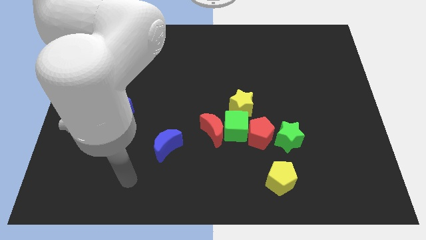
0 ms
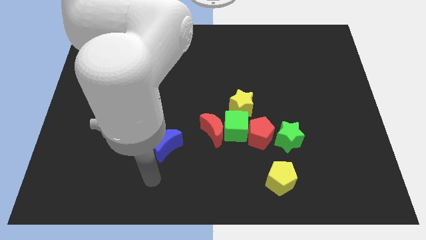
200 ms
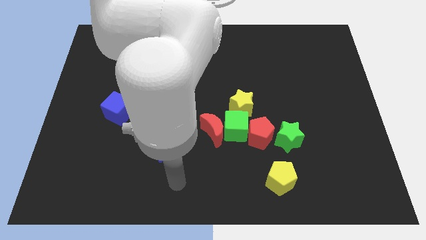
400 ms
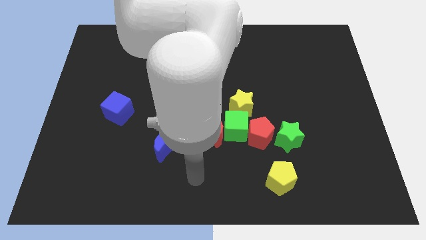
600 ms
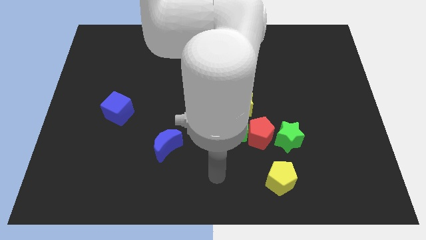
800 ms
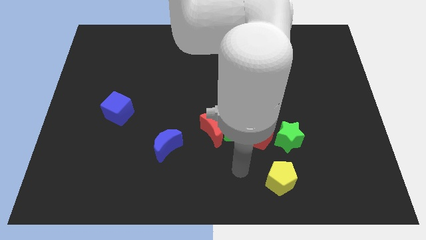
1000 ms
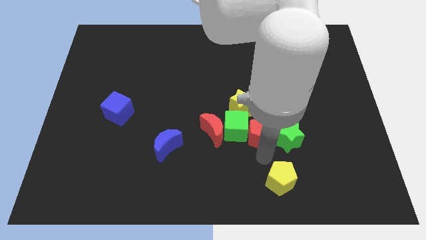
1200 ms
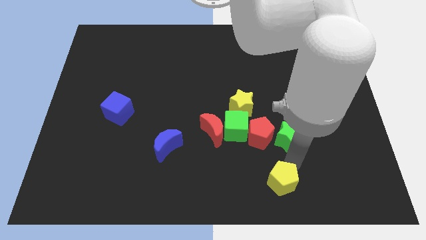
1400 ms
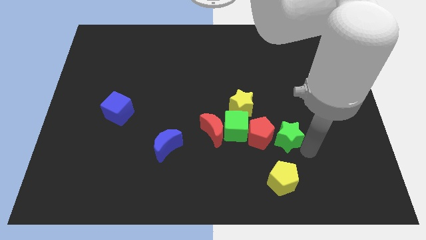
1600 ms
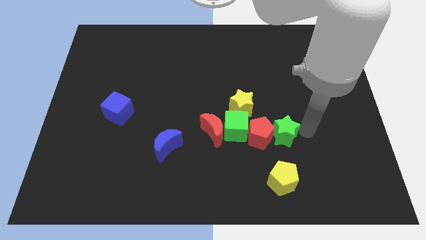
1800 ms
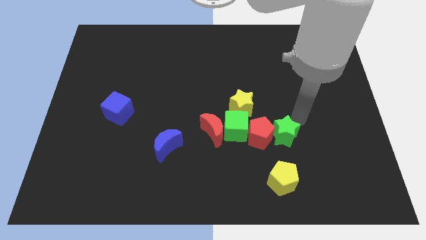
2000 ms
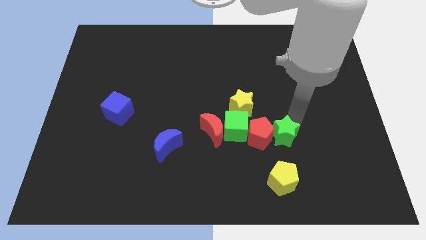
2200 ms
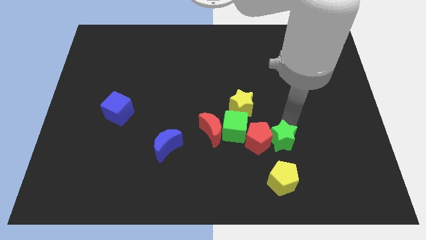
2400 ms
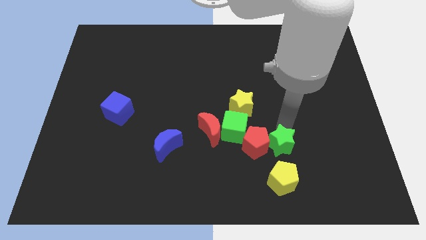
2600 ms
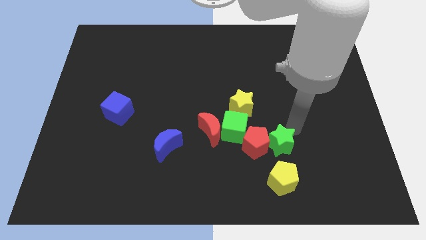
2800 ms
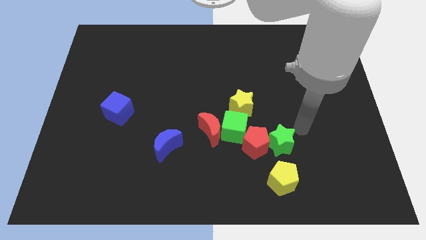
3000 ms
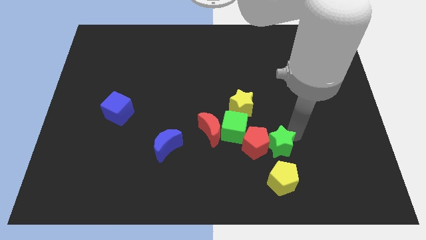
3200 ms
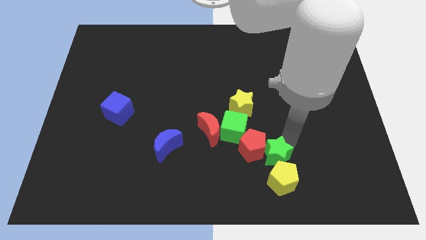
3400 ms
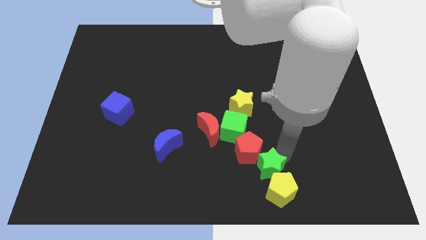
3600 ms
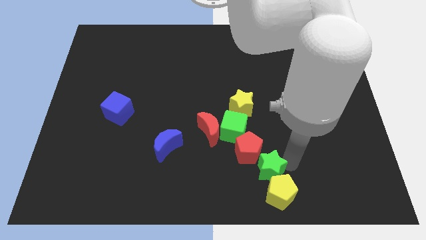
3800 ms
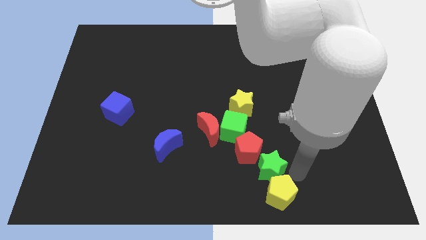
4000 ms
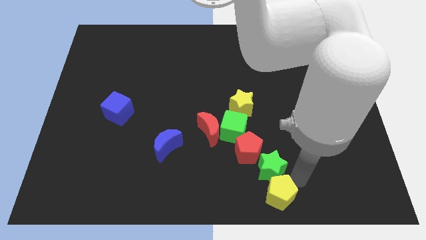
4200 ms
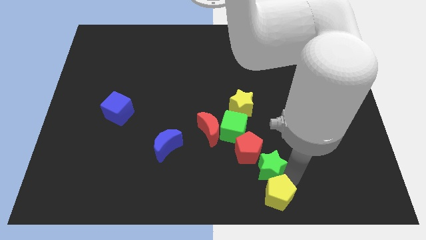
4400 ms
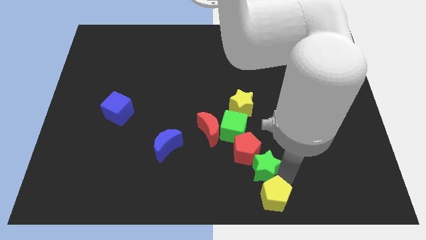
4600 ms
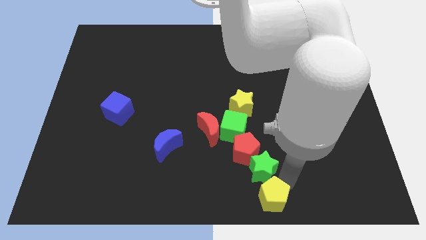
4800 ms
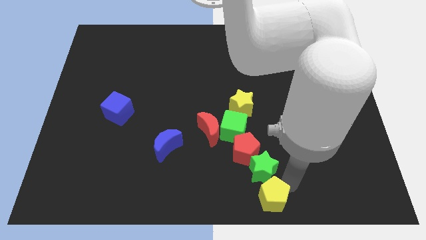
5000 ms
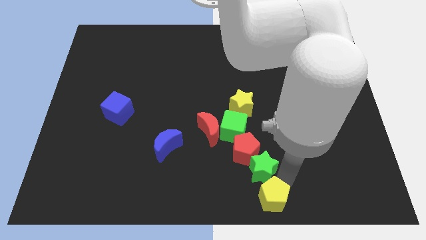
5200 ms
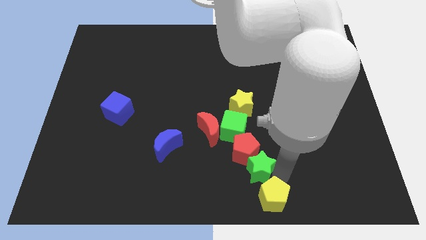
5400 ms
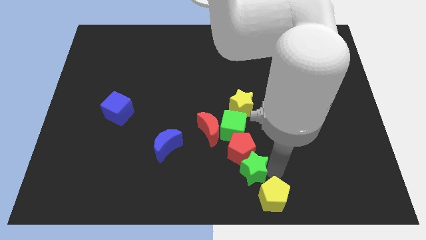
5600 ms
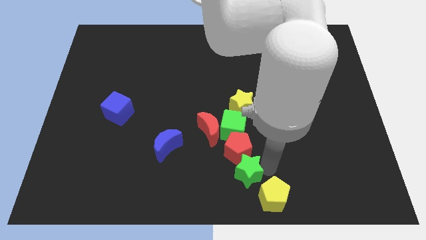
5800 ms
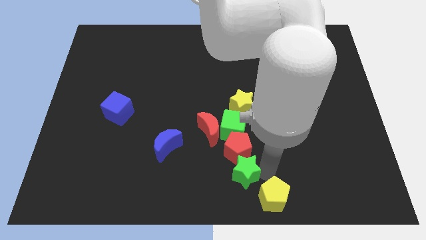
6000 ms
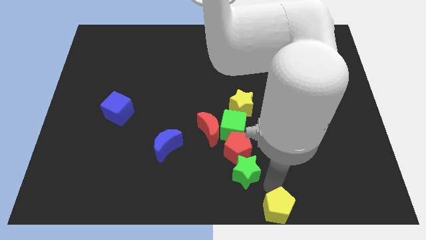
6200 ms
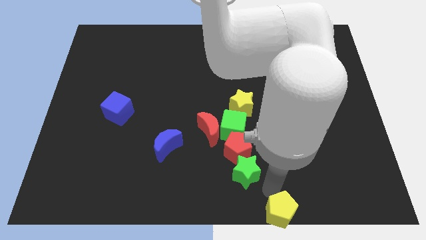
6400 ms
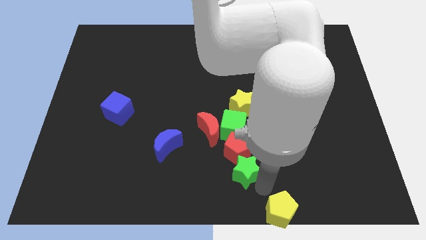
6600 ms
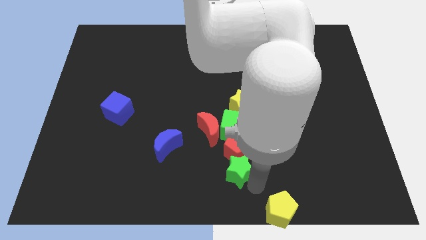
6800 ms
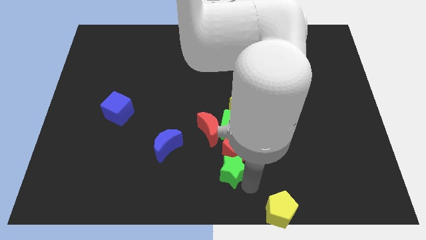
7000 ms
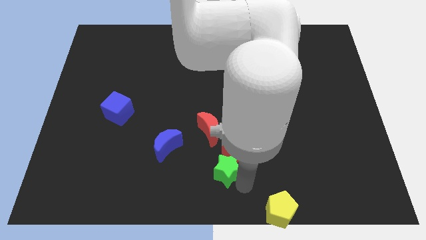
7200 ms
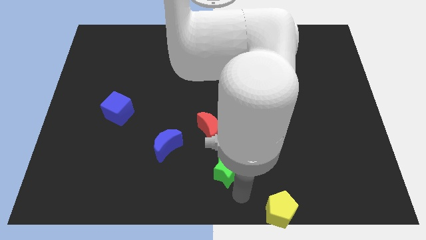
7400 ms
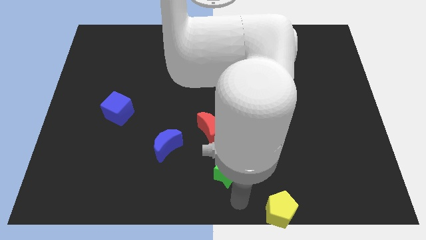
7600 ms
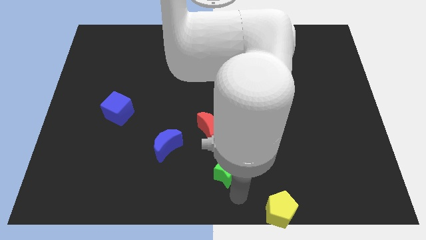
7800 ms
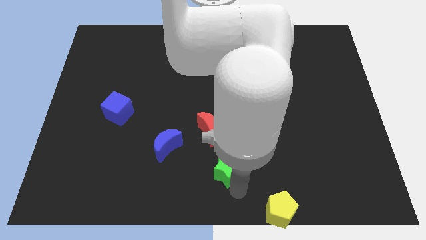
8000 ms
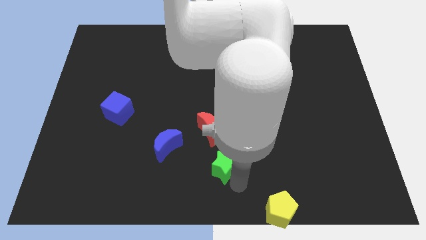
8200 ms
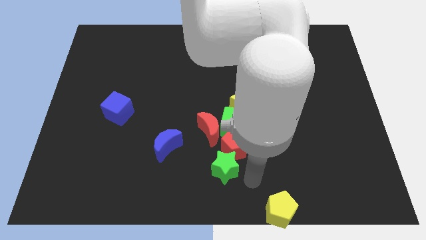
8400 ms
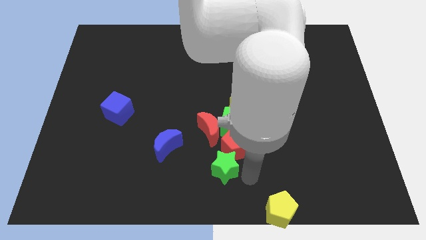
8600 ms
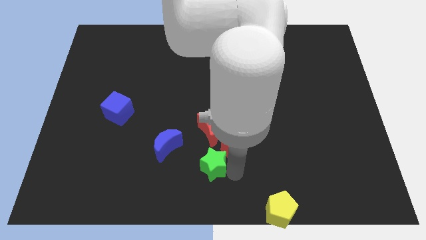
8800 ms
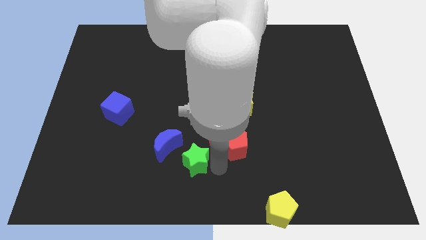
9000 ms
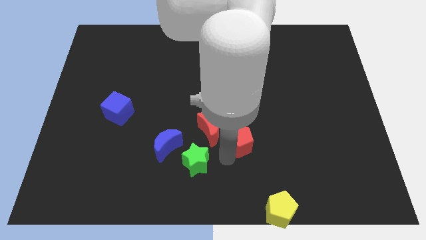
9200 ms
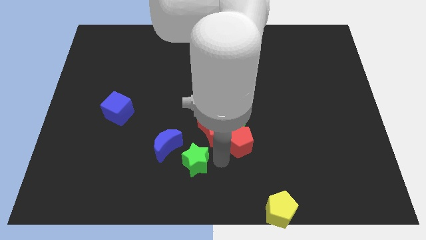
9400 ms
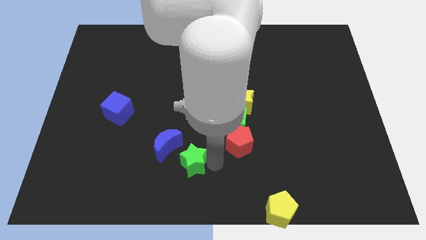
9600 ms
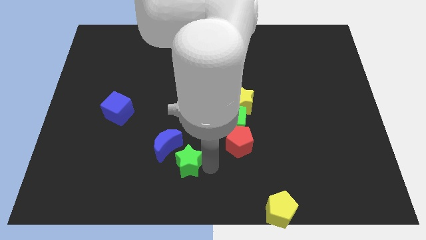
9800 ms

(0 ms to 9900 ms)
push the green star left

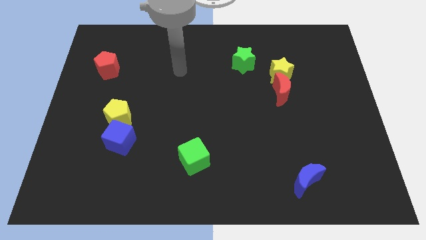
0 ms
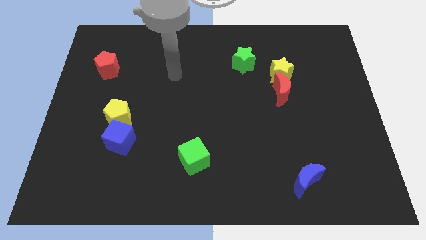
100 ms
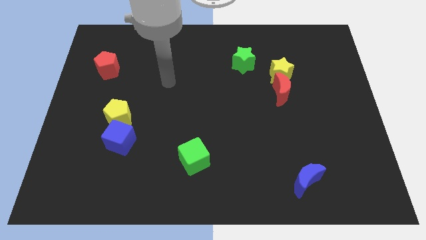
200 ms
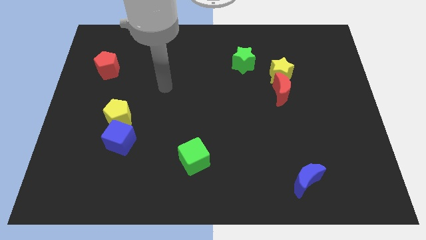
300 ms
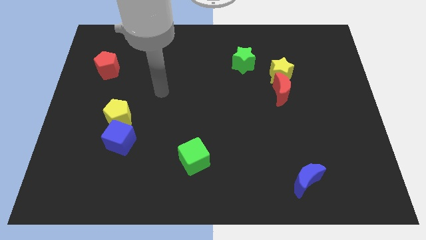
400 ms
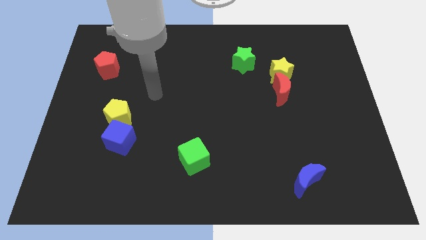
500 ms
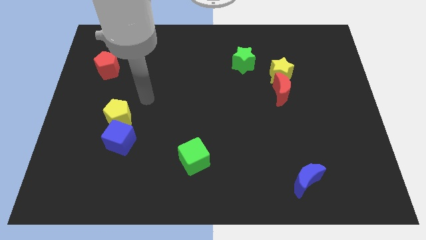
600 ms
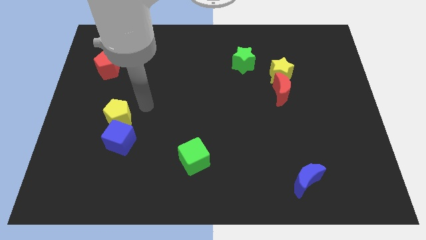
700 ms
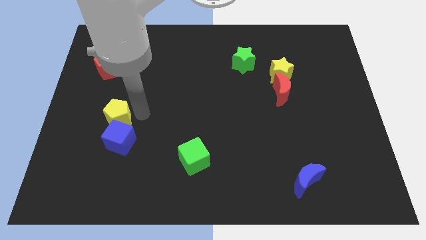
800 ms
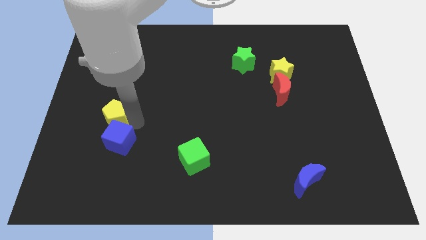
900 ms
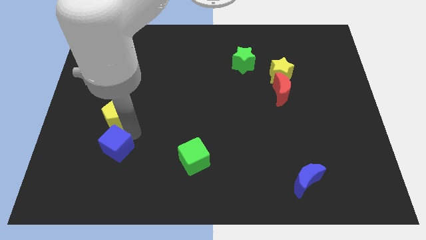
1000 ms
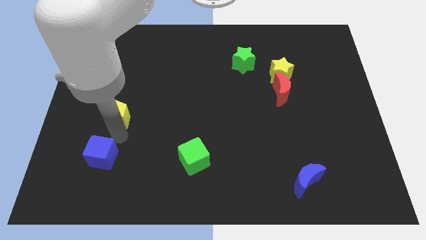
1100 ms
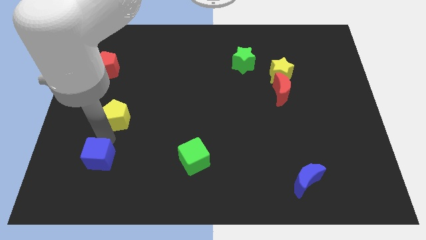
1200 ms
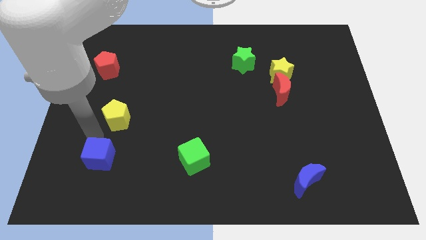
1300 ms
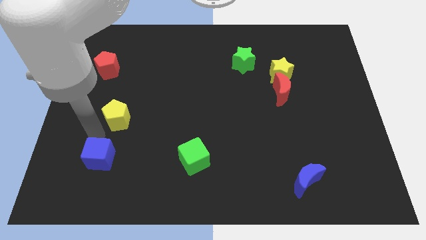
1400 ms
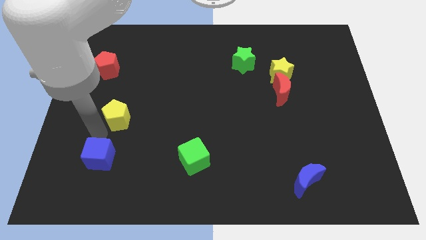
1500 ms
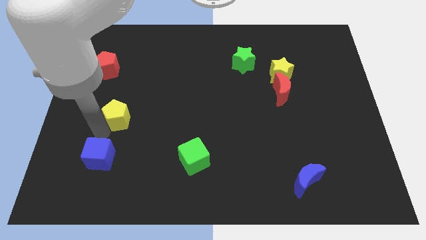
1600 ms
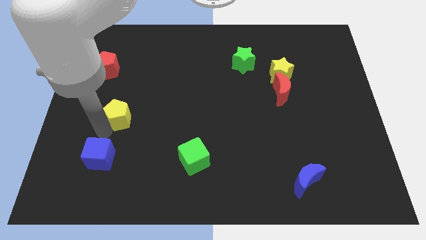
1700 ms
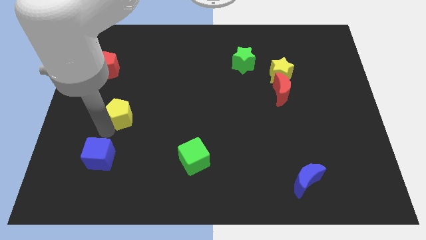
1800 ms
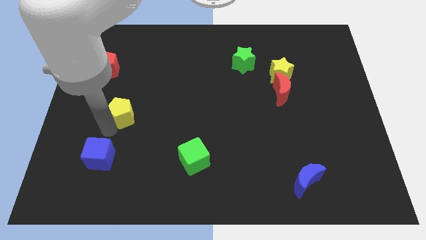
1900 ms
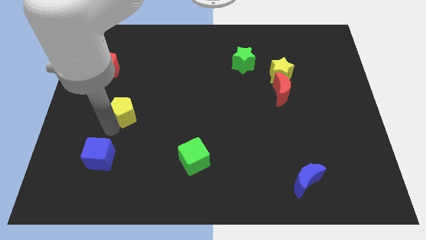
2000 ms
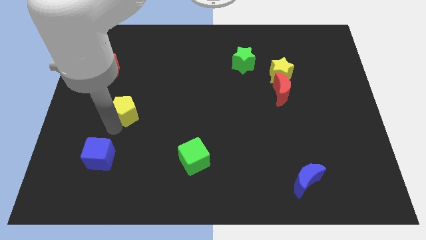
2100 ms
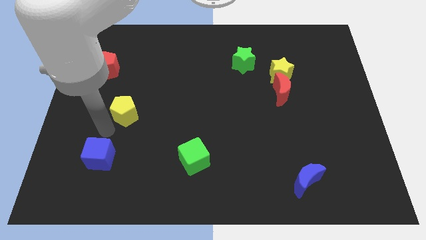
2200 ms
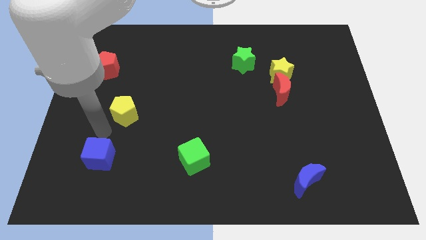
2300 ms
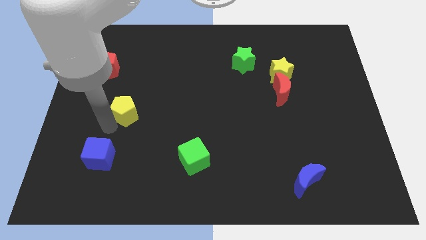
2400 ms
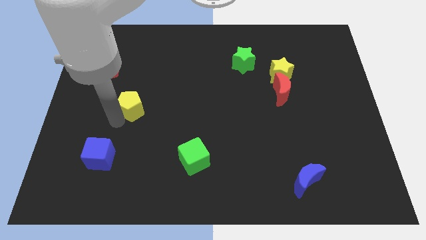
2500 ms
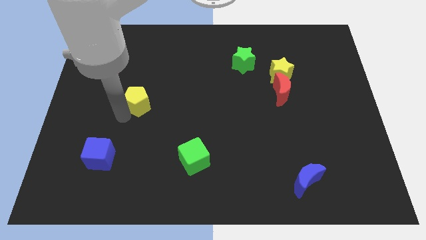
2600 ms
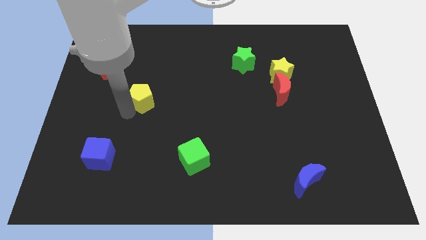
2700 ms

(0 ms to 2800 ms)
move the yellow pentagon a little bit up and to the right

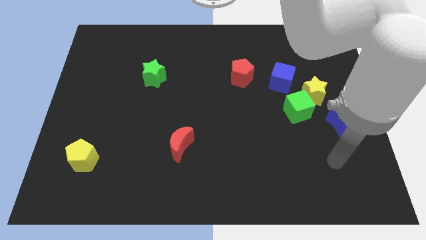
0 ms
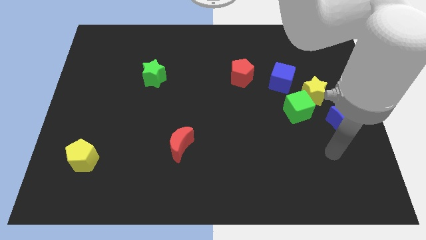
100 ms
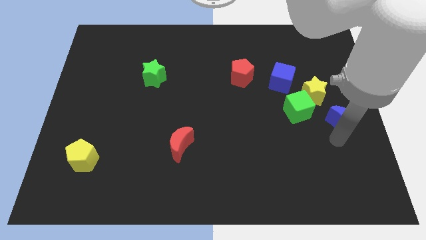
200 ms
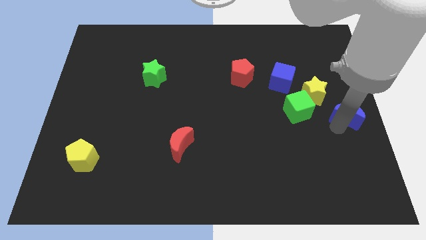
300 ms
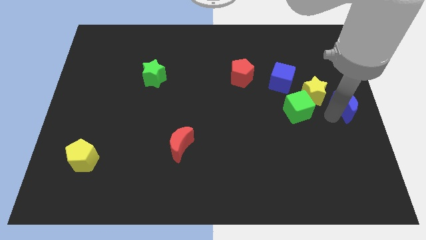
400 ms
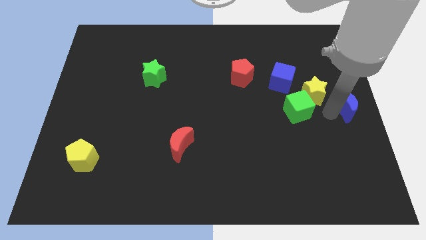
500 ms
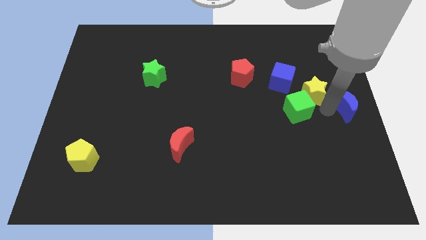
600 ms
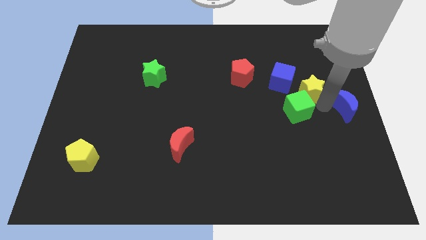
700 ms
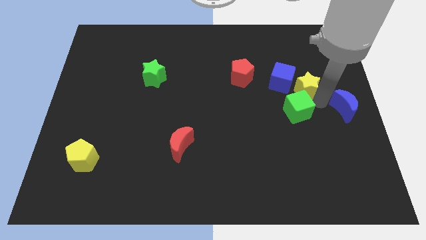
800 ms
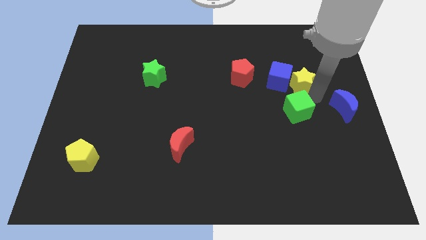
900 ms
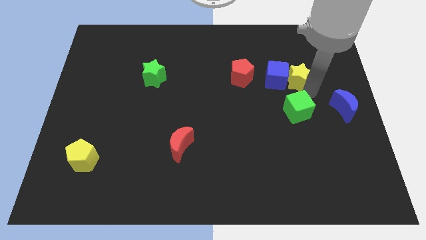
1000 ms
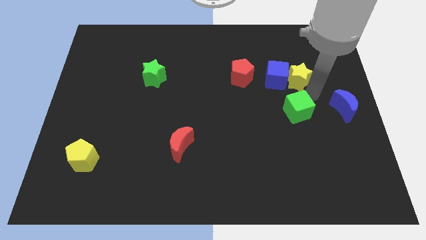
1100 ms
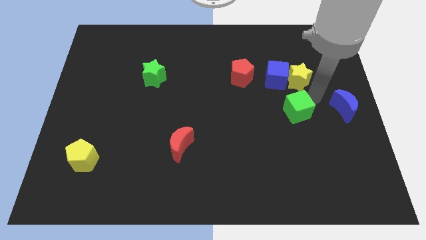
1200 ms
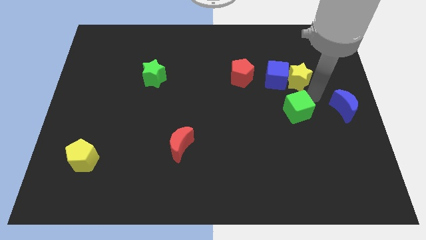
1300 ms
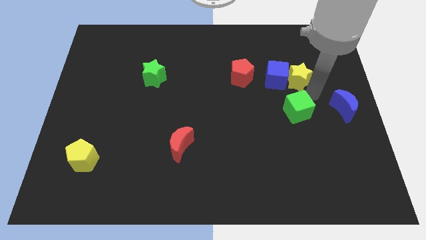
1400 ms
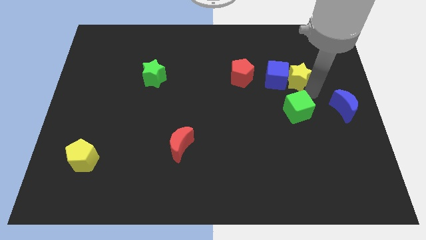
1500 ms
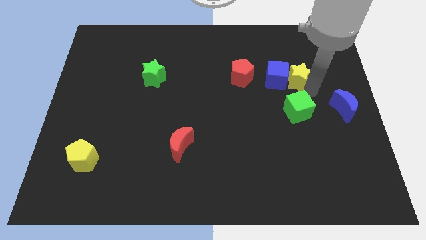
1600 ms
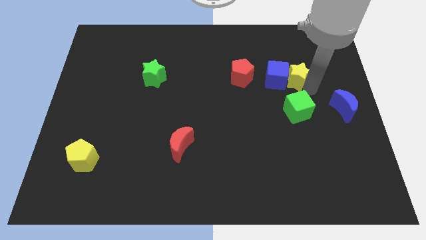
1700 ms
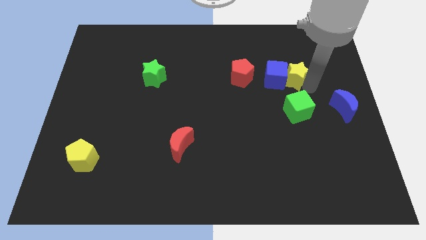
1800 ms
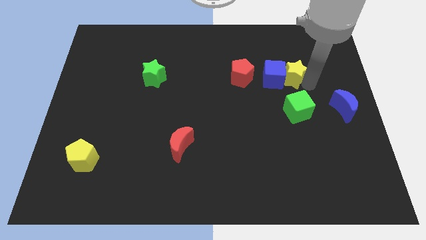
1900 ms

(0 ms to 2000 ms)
slightly move the yellow star up and then left
